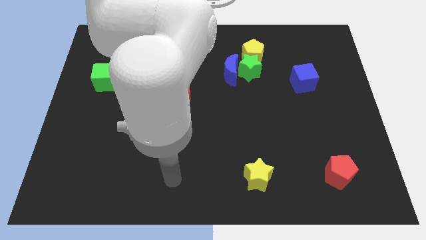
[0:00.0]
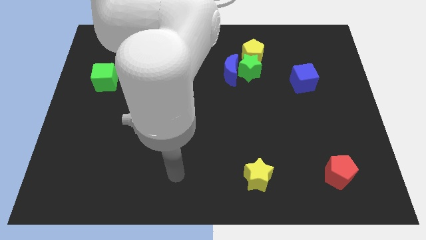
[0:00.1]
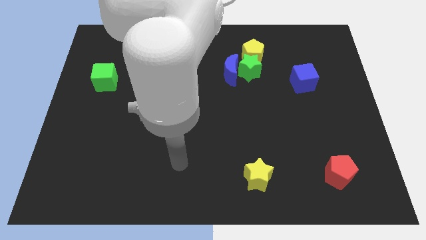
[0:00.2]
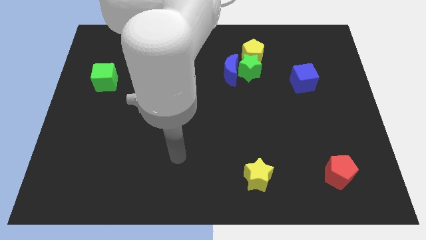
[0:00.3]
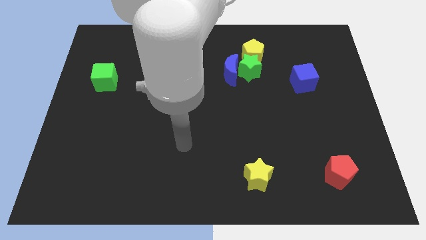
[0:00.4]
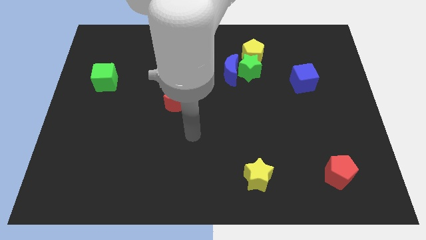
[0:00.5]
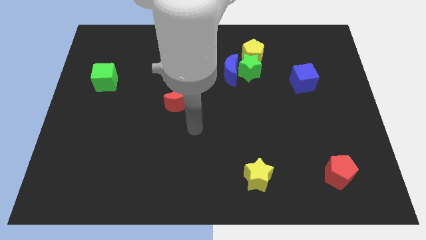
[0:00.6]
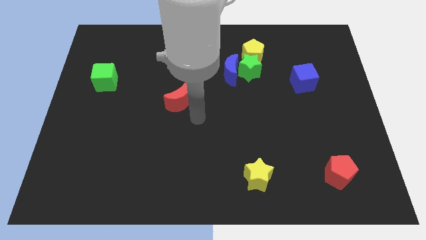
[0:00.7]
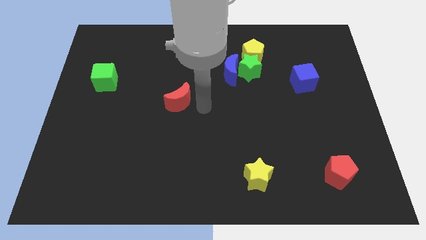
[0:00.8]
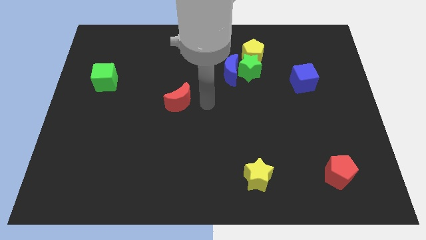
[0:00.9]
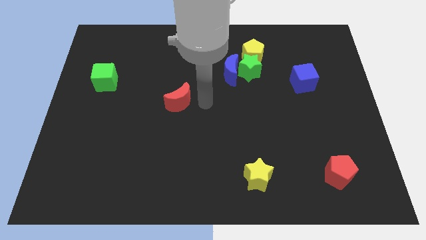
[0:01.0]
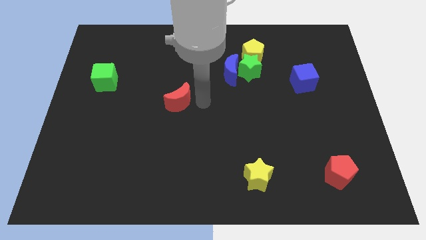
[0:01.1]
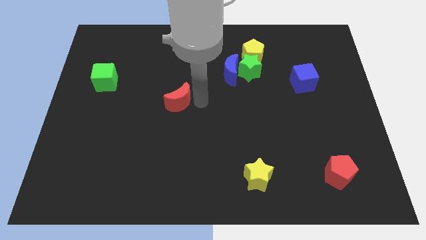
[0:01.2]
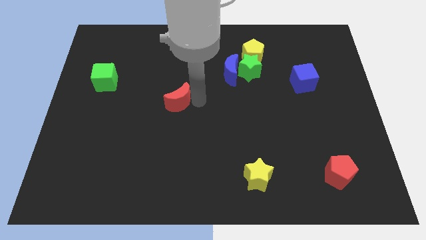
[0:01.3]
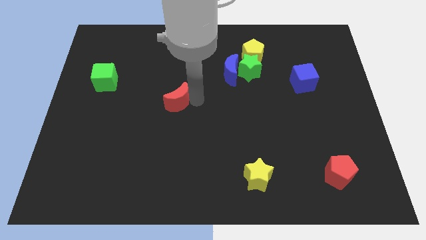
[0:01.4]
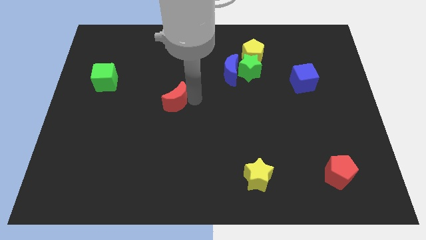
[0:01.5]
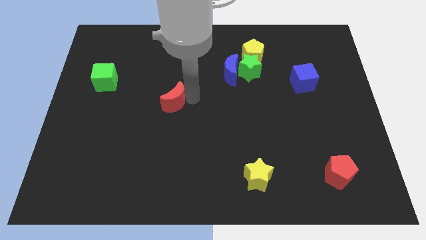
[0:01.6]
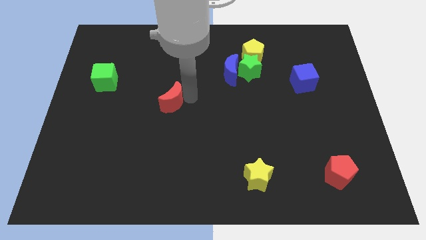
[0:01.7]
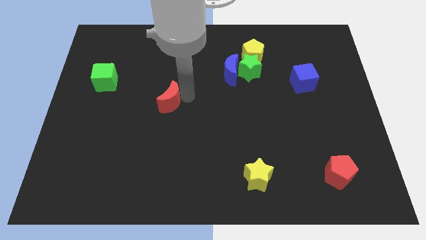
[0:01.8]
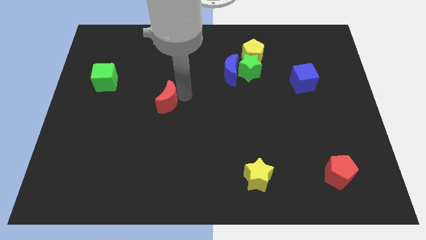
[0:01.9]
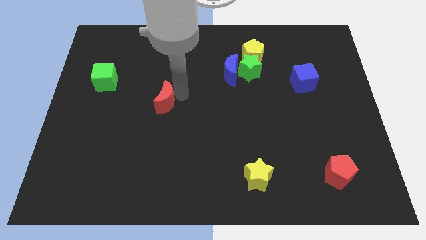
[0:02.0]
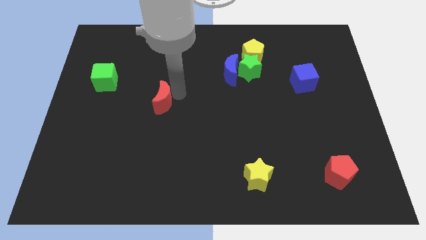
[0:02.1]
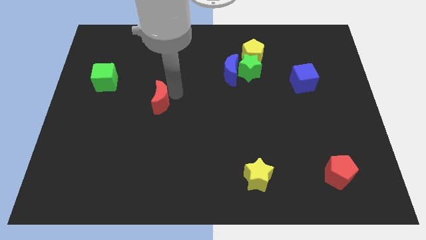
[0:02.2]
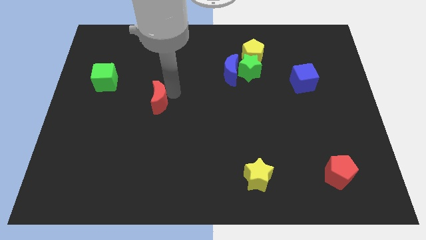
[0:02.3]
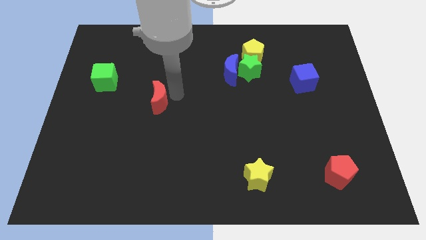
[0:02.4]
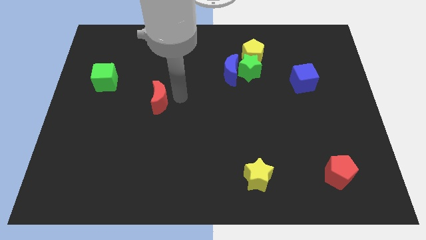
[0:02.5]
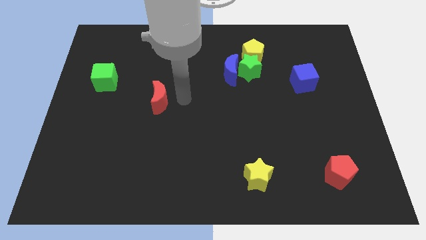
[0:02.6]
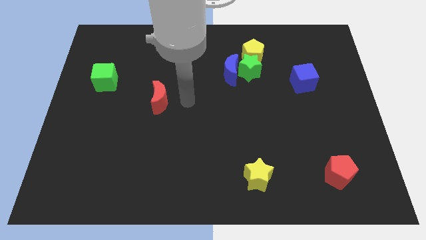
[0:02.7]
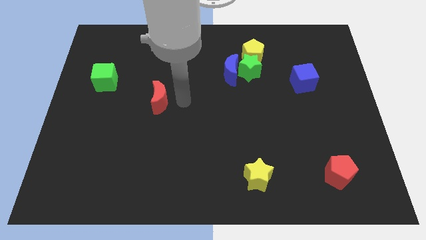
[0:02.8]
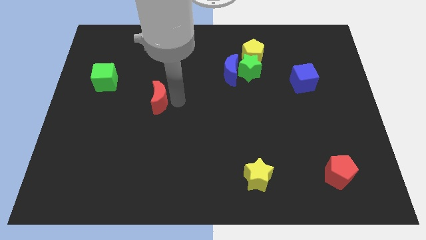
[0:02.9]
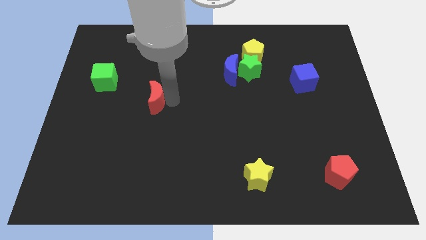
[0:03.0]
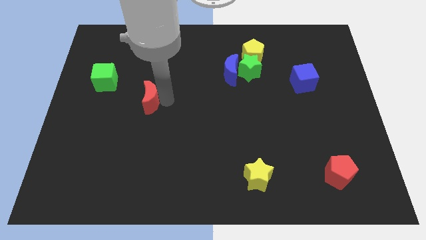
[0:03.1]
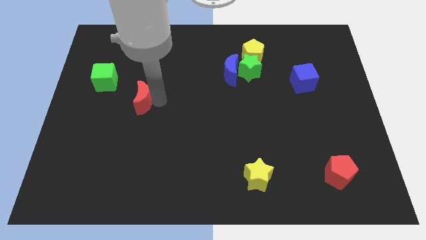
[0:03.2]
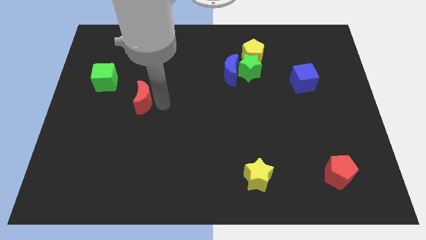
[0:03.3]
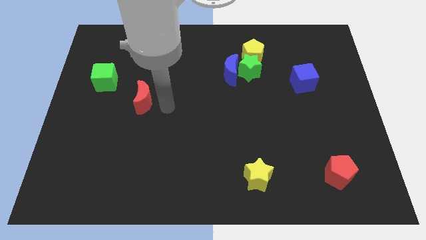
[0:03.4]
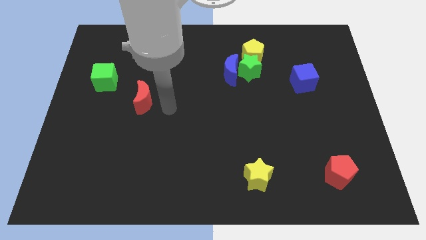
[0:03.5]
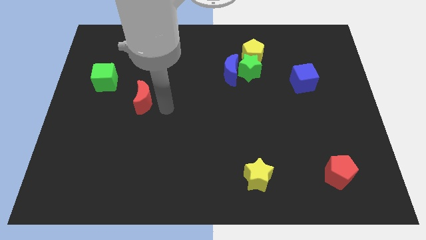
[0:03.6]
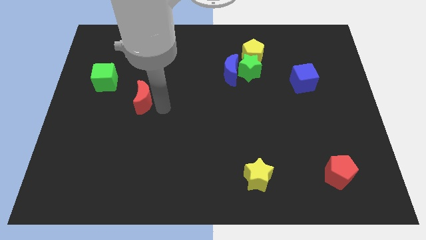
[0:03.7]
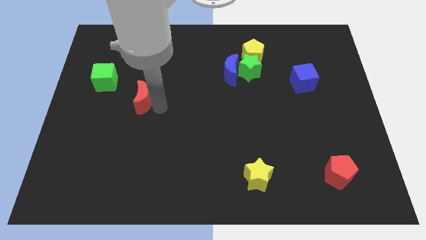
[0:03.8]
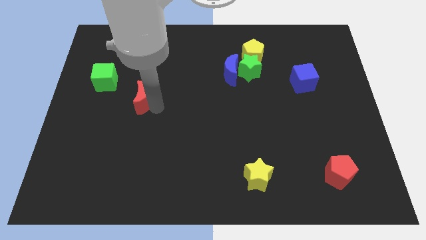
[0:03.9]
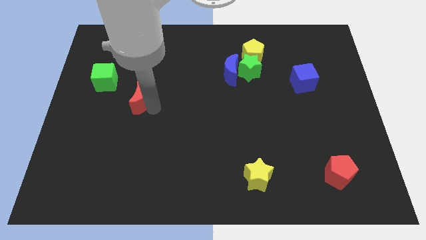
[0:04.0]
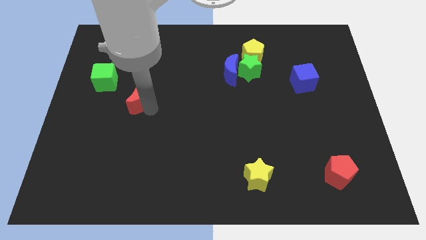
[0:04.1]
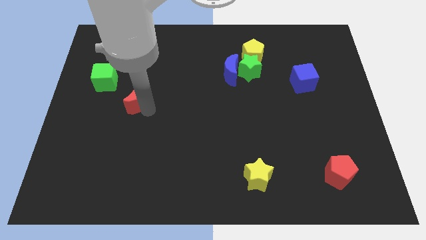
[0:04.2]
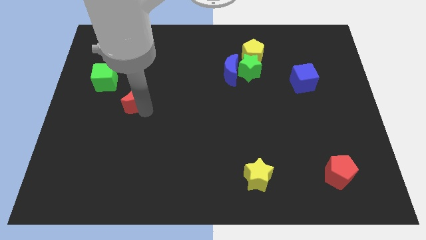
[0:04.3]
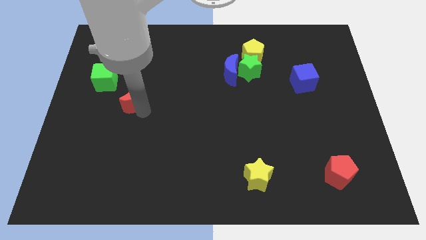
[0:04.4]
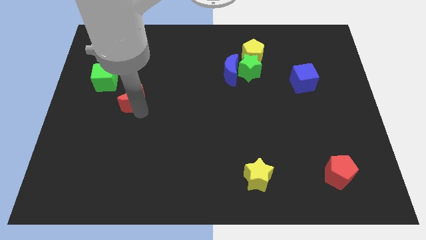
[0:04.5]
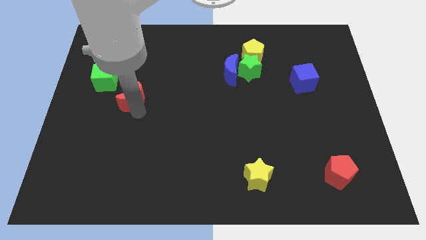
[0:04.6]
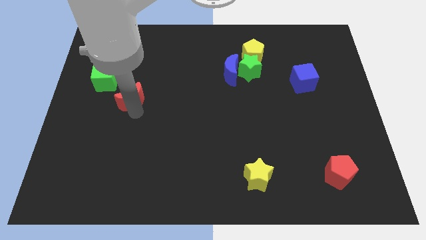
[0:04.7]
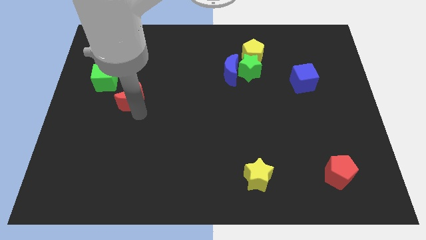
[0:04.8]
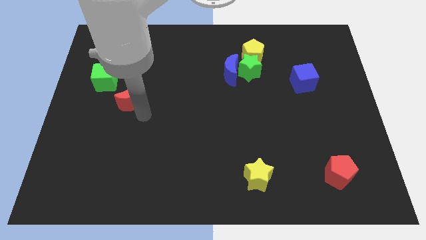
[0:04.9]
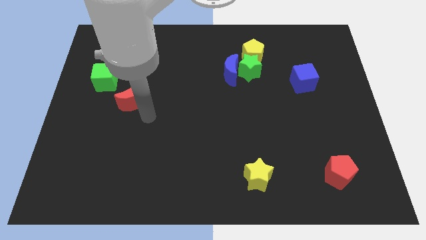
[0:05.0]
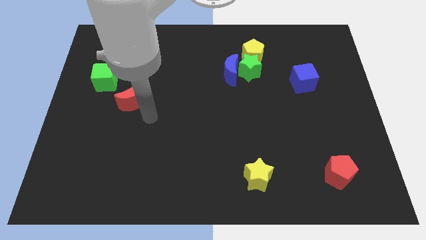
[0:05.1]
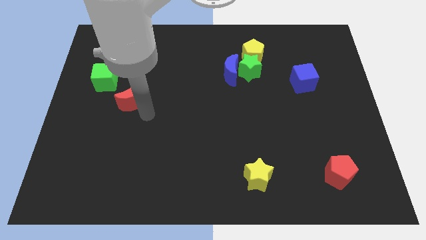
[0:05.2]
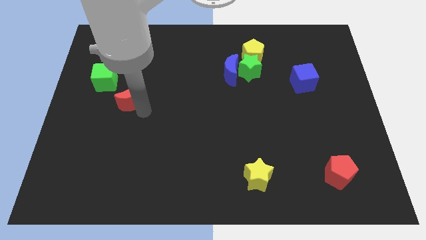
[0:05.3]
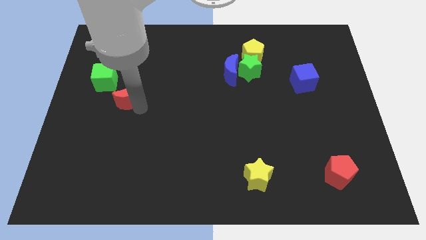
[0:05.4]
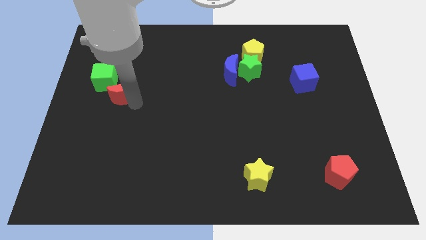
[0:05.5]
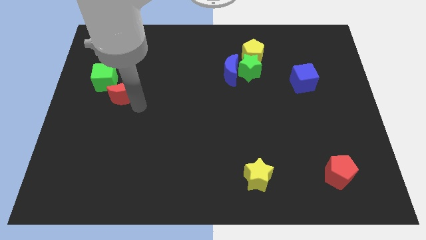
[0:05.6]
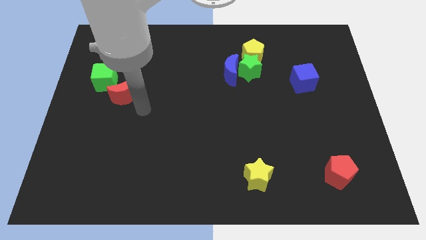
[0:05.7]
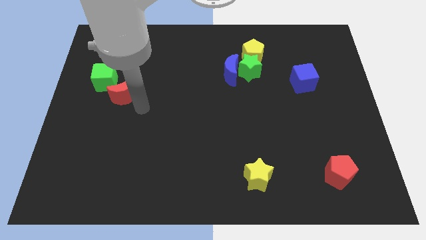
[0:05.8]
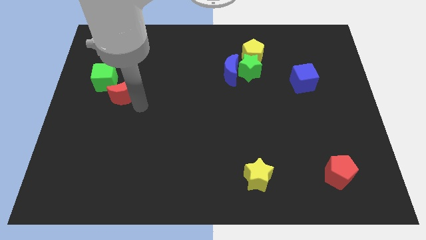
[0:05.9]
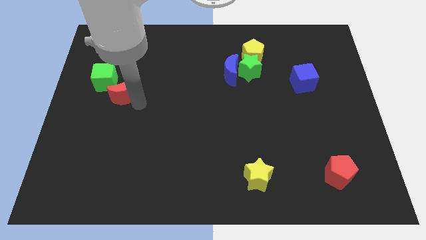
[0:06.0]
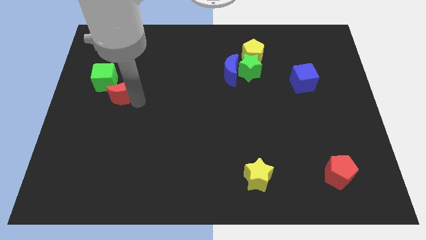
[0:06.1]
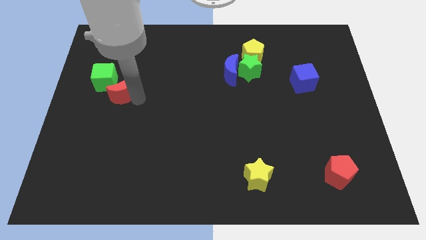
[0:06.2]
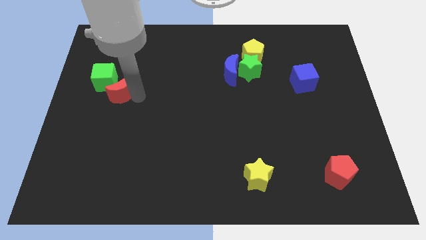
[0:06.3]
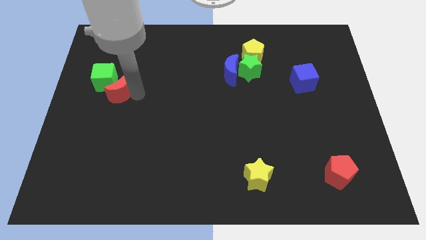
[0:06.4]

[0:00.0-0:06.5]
move the red moon next to the green cube

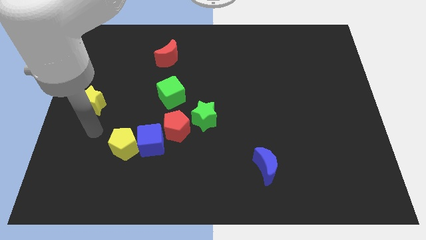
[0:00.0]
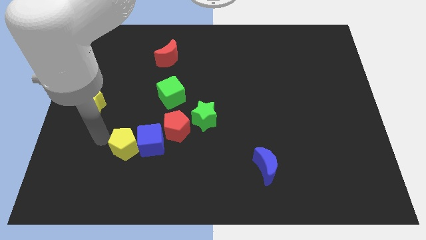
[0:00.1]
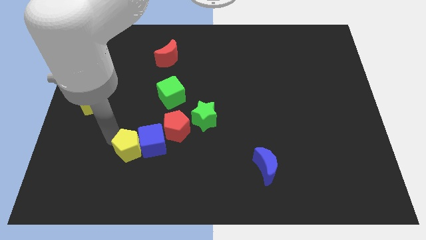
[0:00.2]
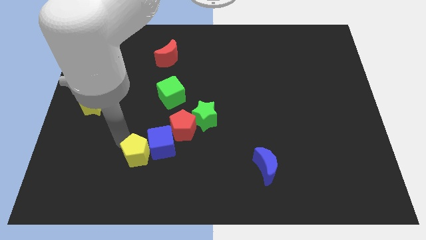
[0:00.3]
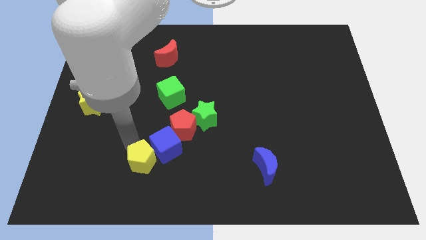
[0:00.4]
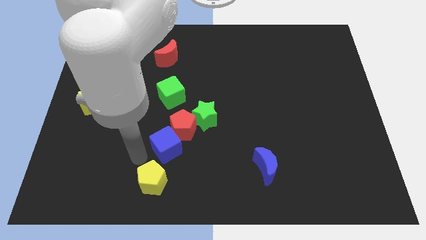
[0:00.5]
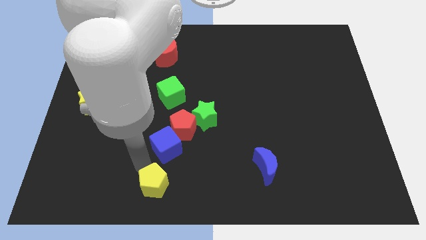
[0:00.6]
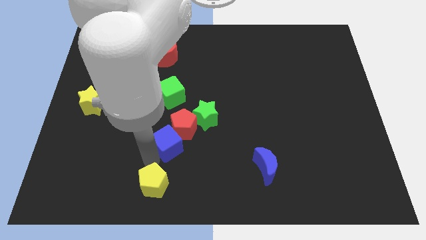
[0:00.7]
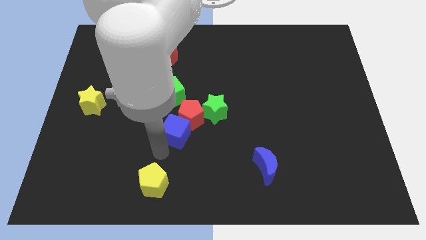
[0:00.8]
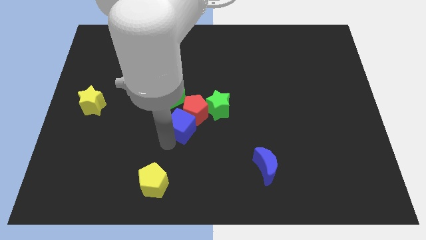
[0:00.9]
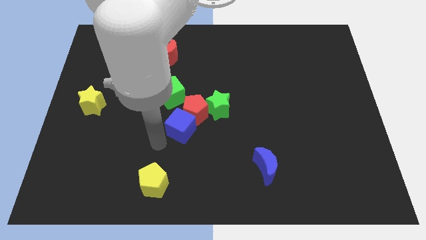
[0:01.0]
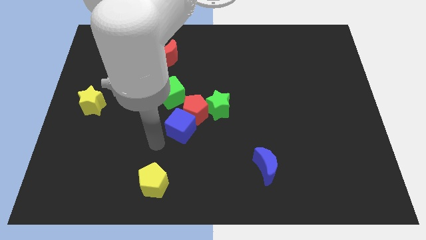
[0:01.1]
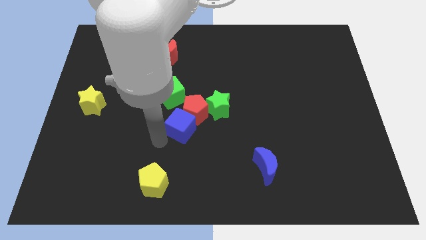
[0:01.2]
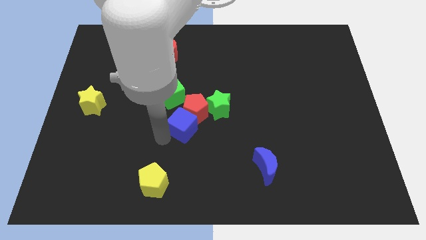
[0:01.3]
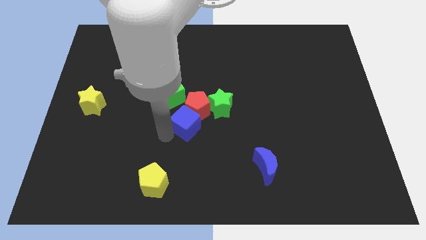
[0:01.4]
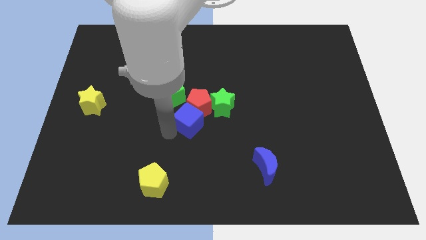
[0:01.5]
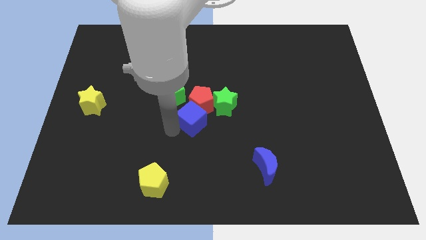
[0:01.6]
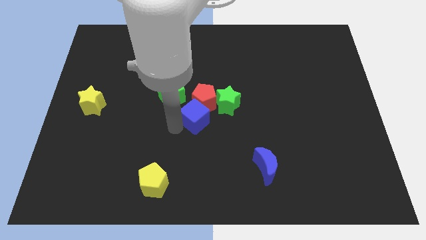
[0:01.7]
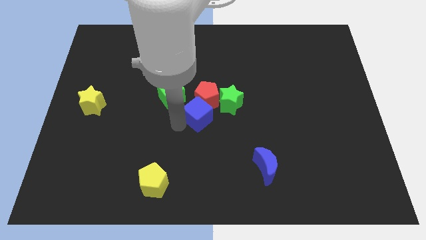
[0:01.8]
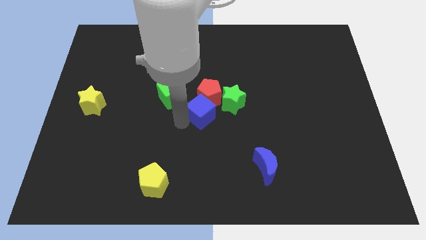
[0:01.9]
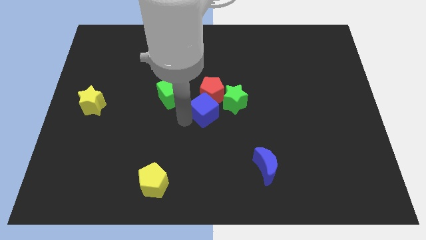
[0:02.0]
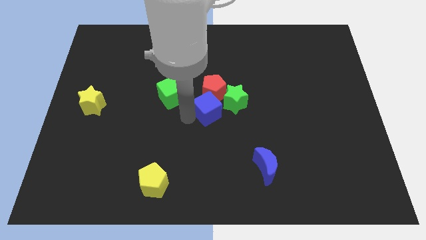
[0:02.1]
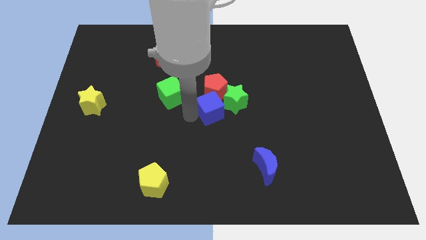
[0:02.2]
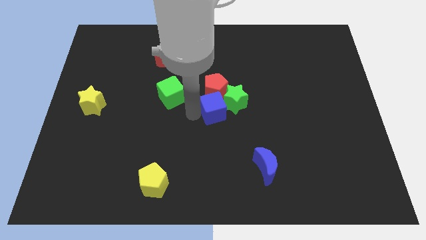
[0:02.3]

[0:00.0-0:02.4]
put the blue cube next to the green star
